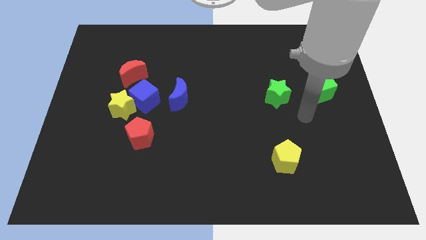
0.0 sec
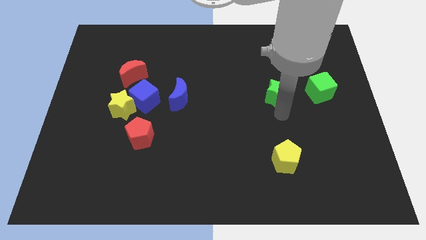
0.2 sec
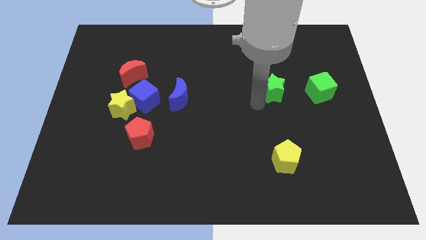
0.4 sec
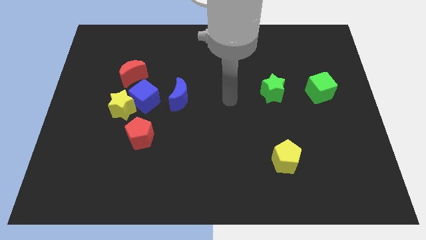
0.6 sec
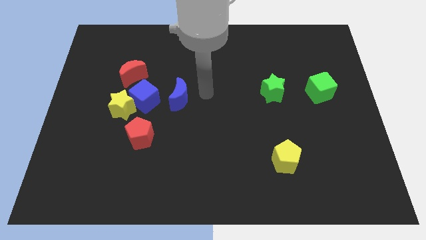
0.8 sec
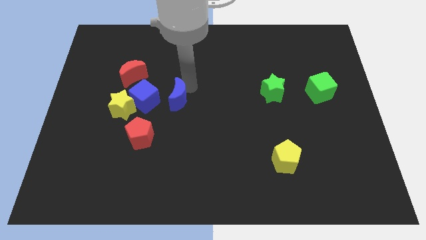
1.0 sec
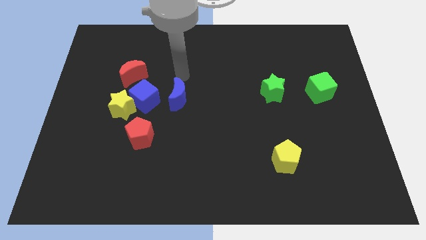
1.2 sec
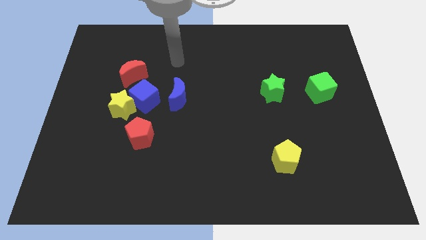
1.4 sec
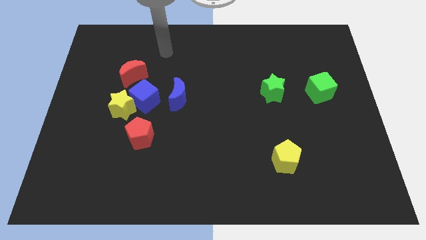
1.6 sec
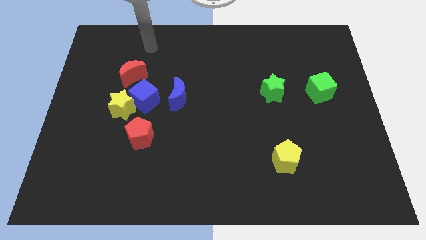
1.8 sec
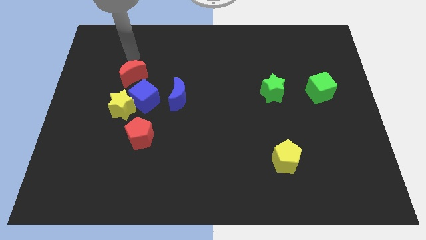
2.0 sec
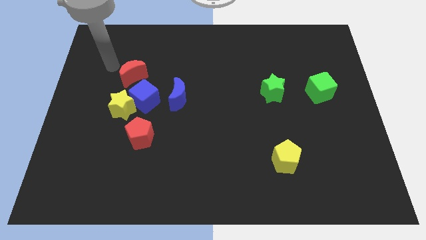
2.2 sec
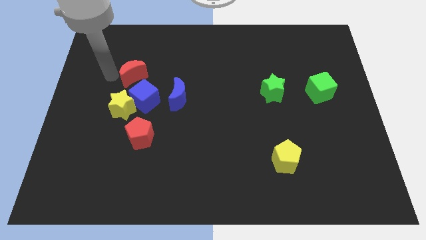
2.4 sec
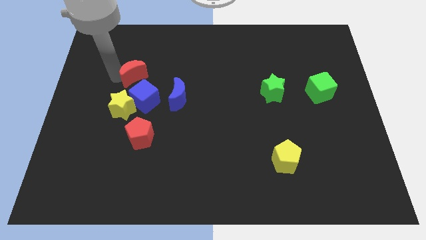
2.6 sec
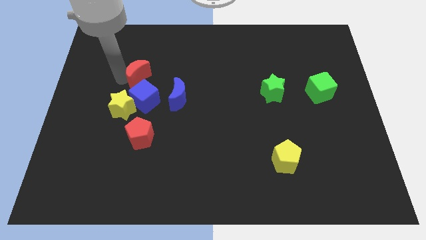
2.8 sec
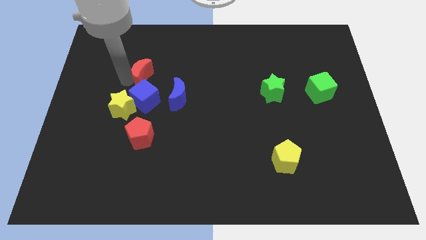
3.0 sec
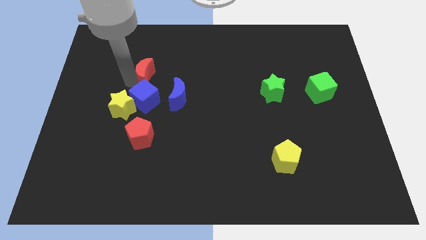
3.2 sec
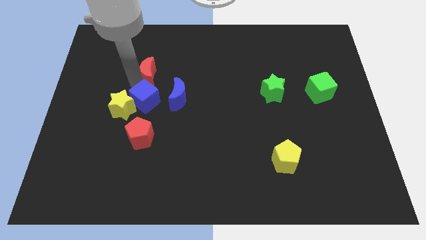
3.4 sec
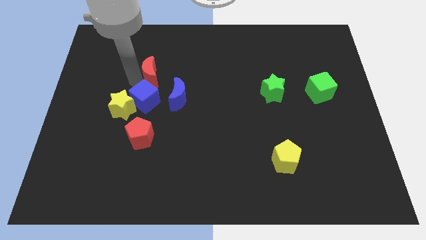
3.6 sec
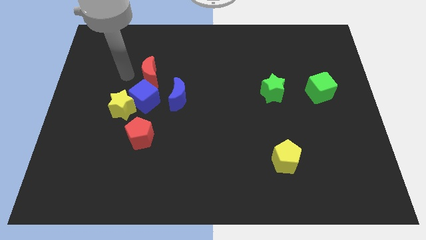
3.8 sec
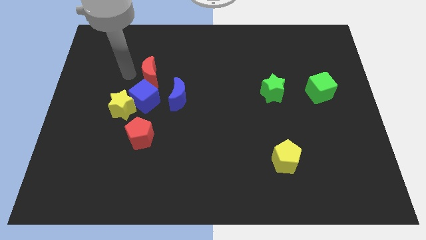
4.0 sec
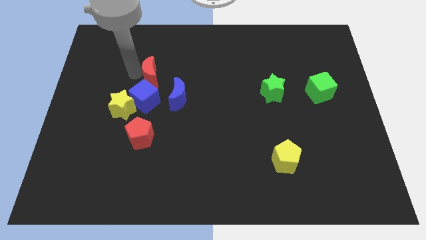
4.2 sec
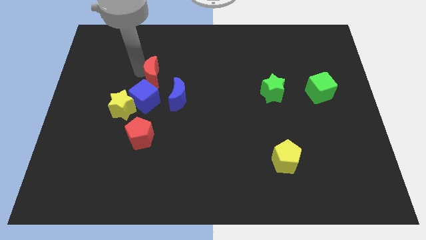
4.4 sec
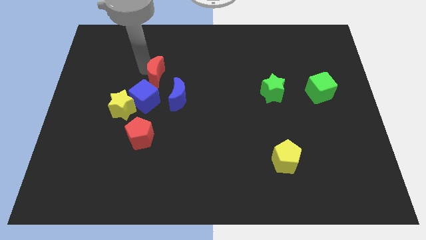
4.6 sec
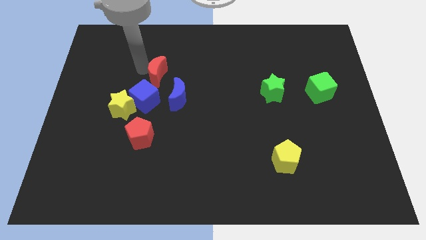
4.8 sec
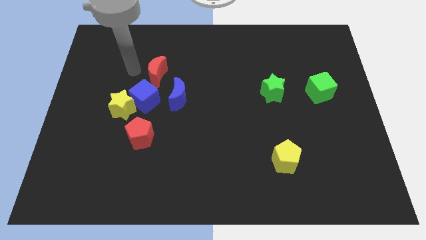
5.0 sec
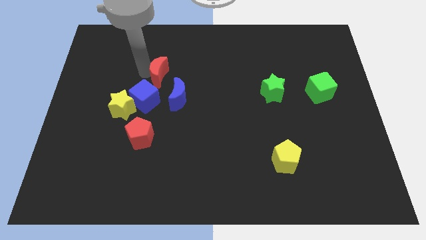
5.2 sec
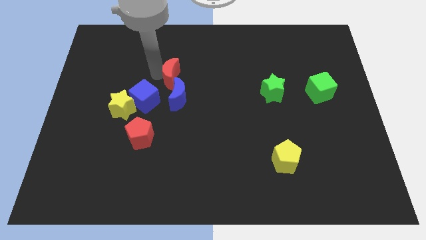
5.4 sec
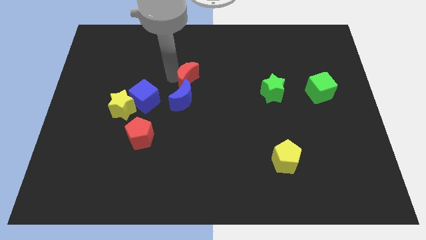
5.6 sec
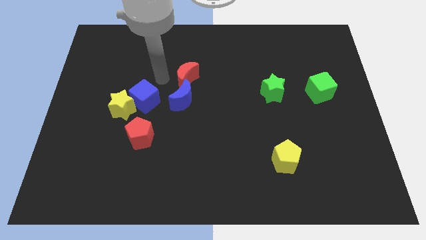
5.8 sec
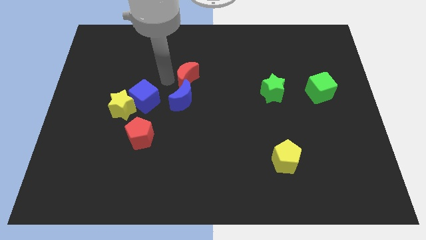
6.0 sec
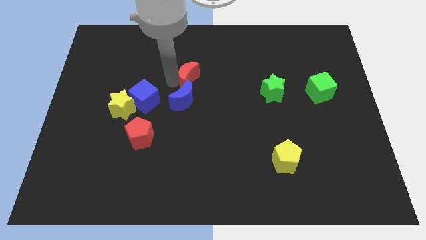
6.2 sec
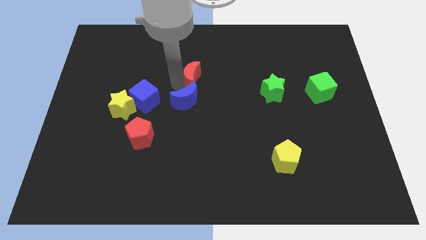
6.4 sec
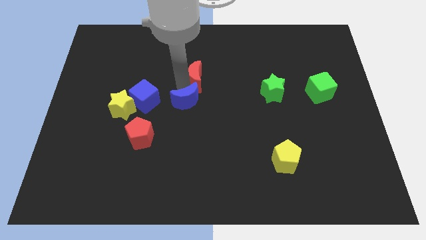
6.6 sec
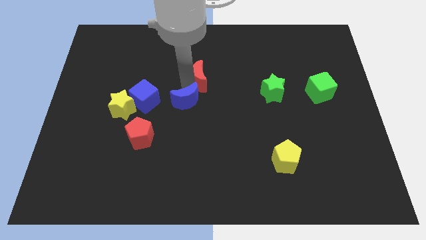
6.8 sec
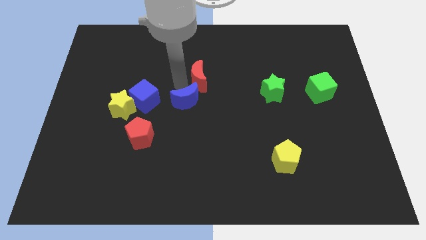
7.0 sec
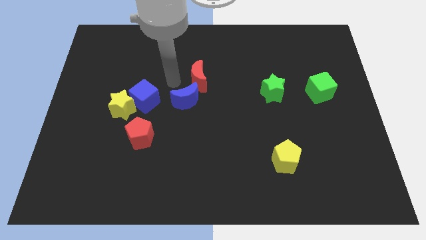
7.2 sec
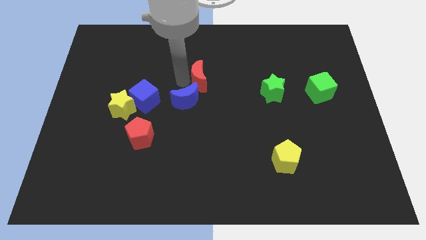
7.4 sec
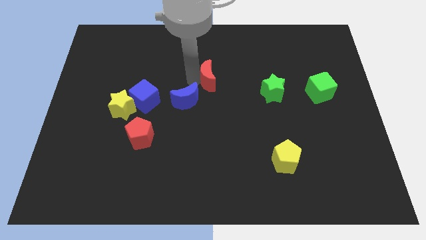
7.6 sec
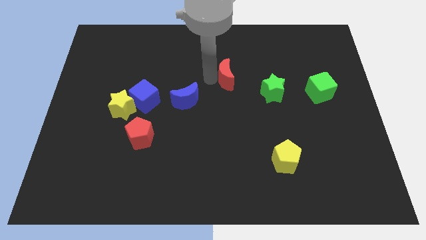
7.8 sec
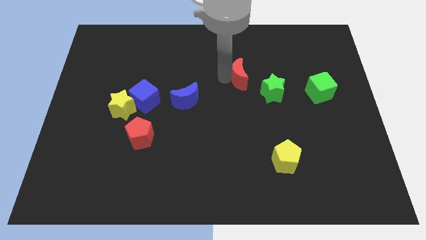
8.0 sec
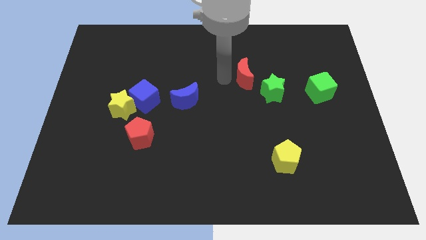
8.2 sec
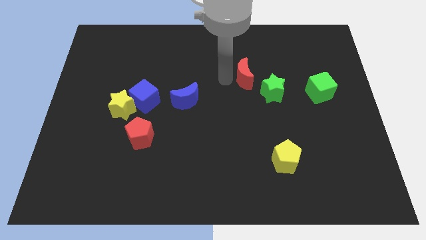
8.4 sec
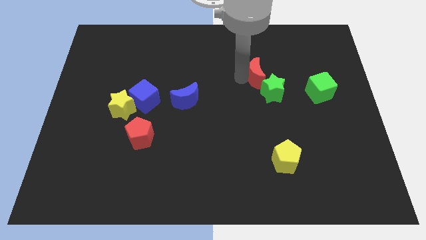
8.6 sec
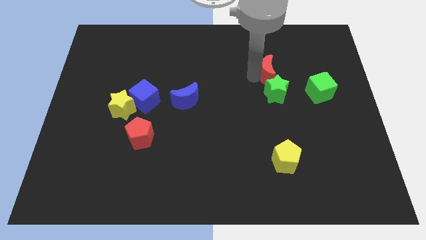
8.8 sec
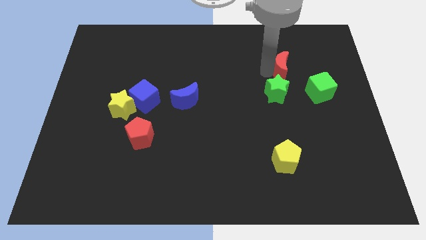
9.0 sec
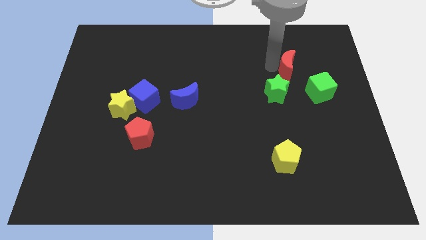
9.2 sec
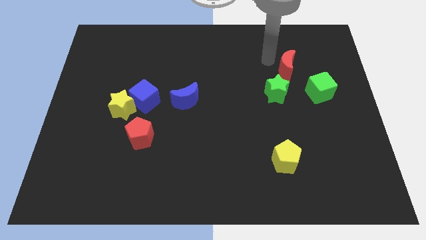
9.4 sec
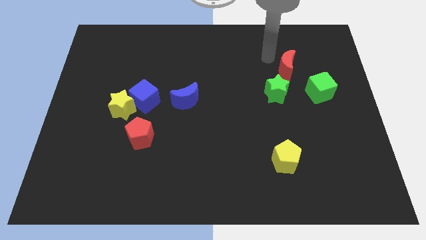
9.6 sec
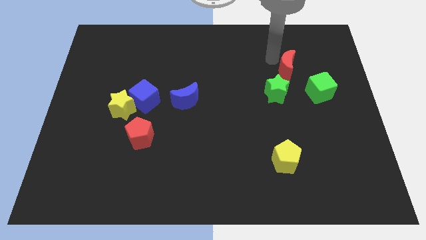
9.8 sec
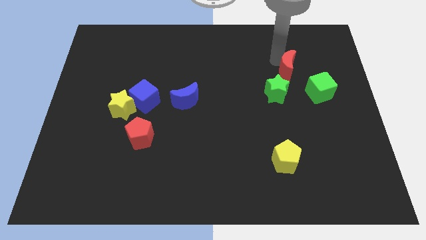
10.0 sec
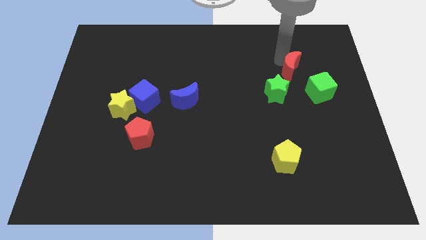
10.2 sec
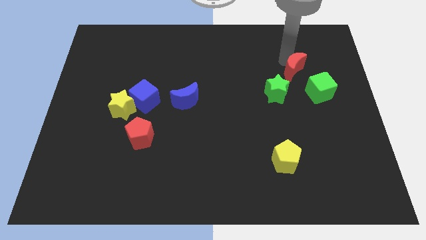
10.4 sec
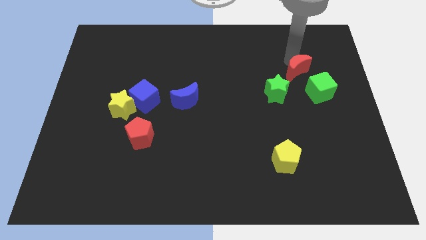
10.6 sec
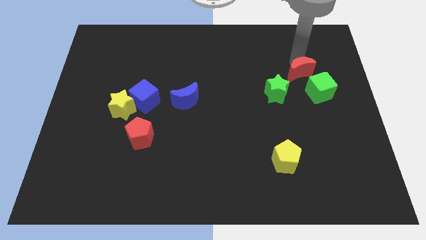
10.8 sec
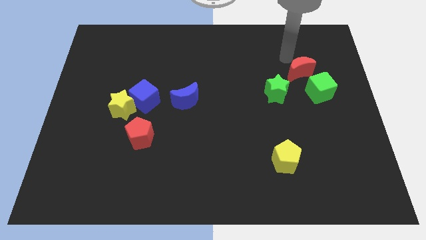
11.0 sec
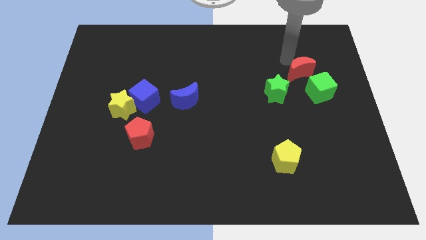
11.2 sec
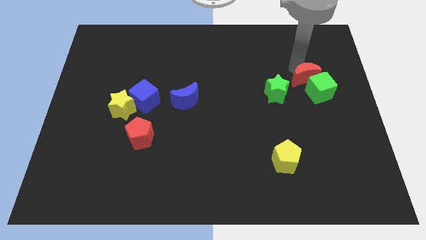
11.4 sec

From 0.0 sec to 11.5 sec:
move the red moon close to the green cube

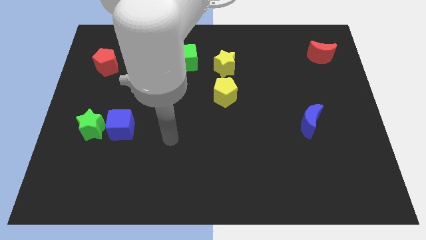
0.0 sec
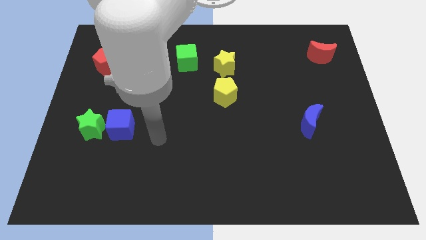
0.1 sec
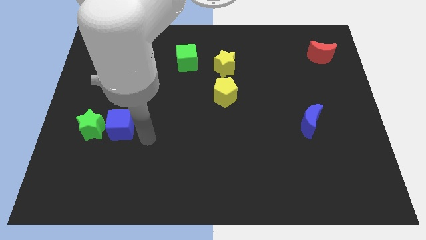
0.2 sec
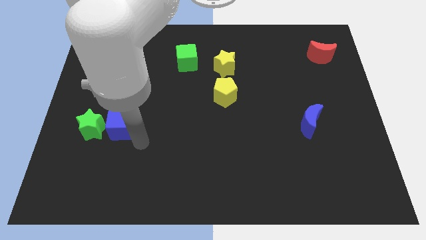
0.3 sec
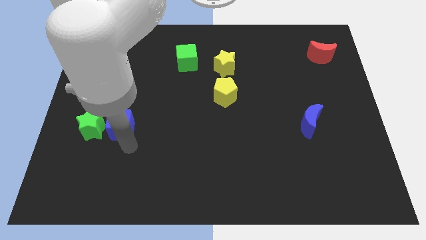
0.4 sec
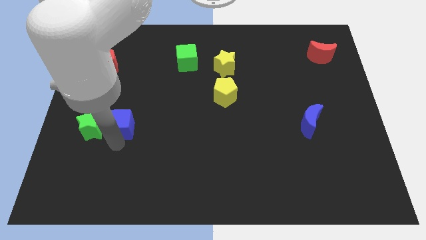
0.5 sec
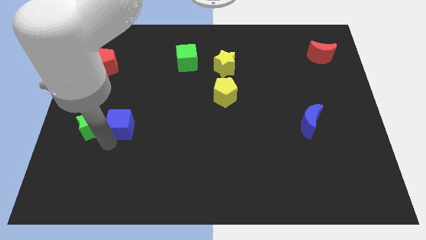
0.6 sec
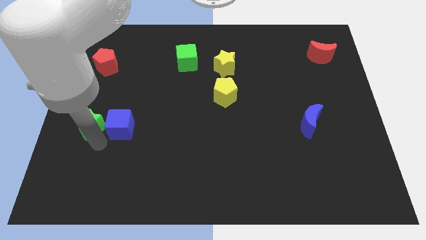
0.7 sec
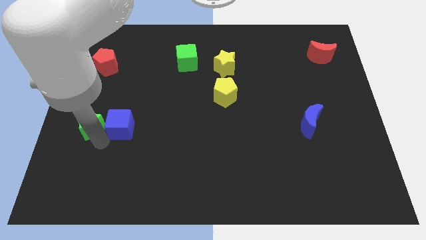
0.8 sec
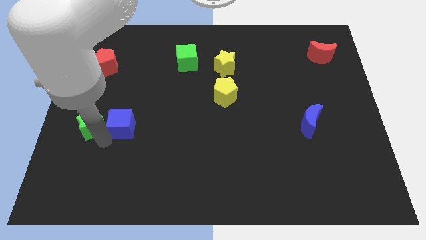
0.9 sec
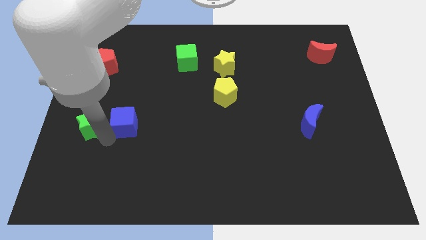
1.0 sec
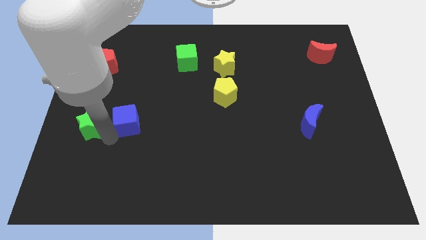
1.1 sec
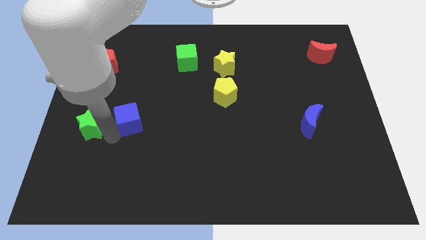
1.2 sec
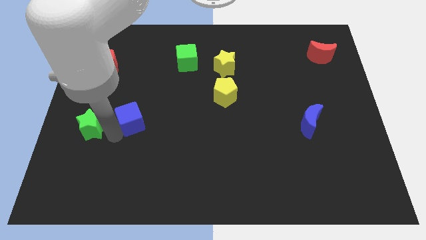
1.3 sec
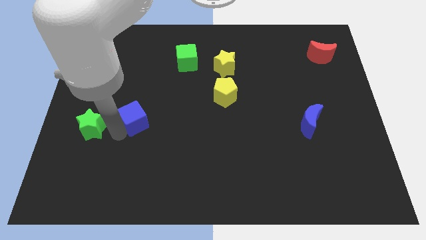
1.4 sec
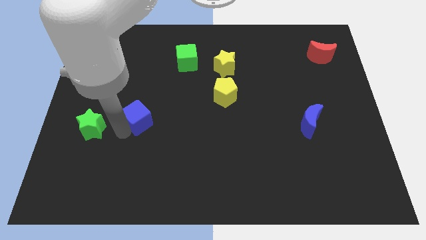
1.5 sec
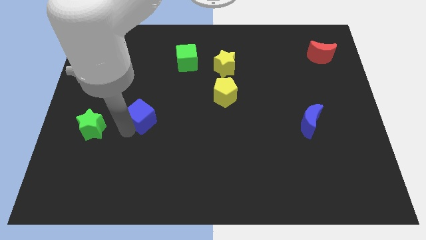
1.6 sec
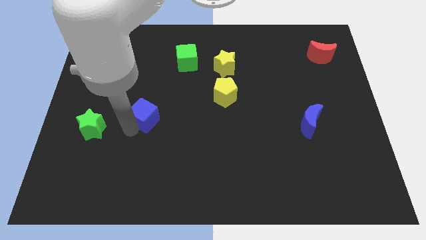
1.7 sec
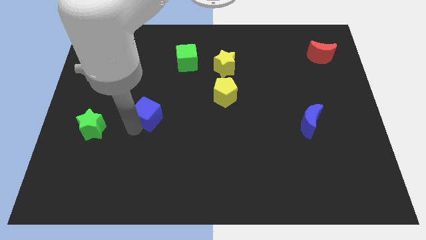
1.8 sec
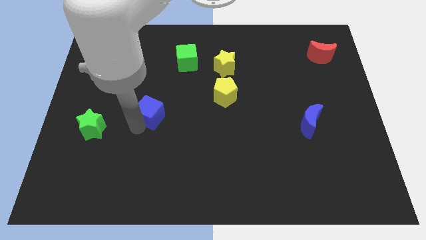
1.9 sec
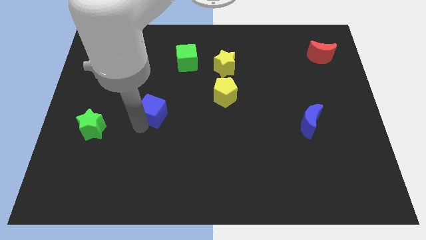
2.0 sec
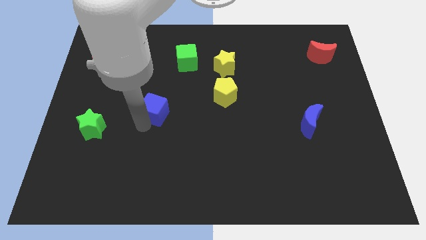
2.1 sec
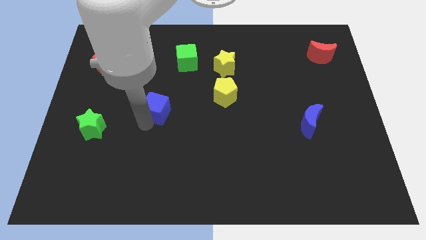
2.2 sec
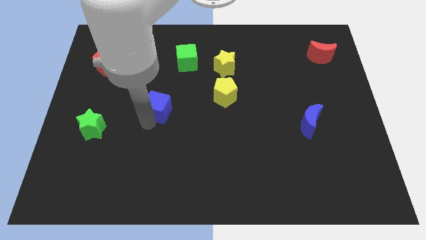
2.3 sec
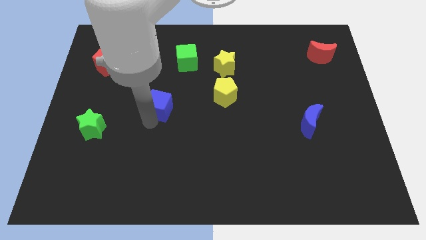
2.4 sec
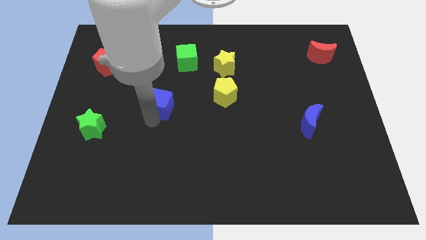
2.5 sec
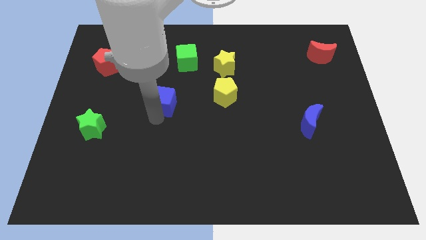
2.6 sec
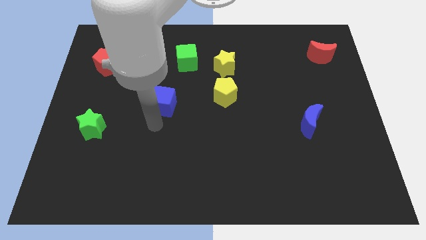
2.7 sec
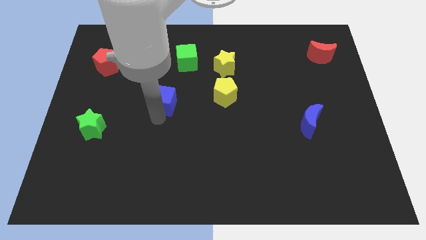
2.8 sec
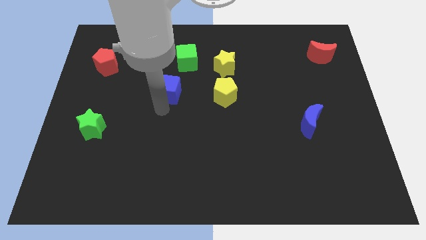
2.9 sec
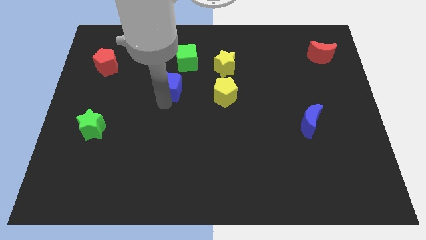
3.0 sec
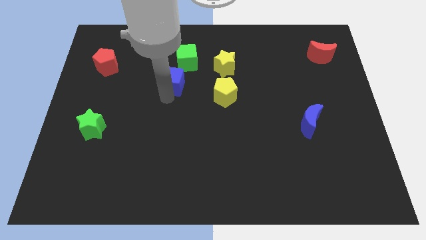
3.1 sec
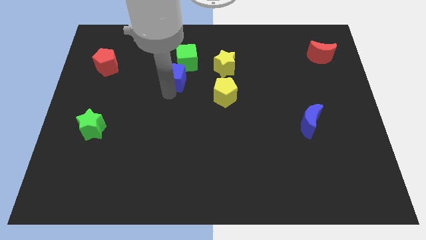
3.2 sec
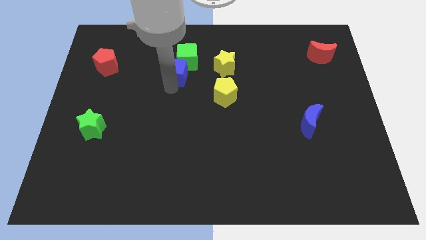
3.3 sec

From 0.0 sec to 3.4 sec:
put the blue cube to the green cube
